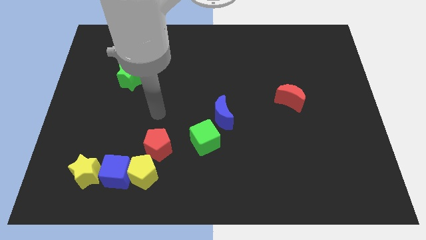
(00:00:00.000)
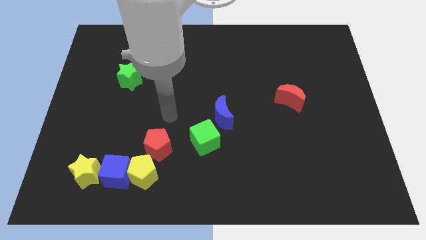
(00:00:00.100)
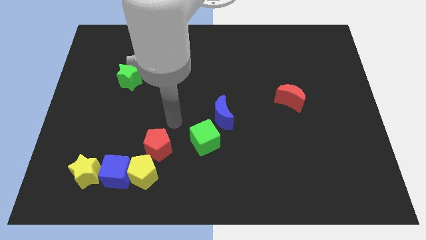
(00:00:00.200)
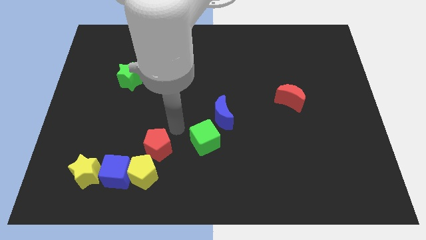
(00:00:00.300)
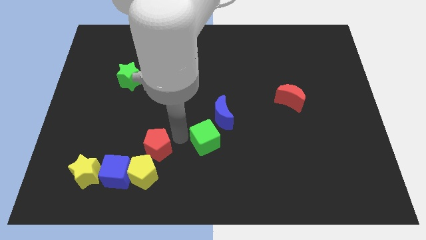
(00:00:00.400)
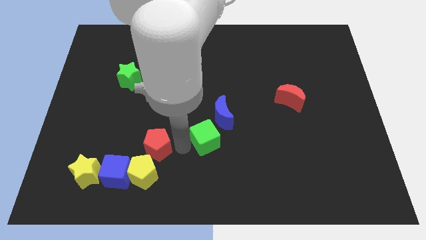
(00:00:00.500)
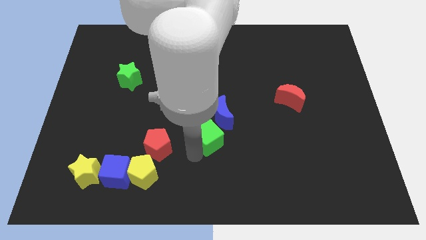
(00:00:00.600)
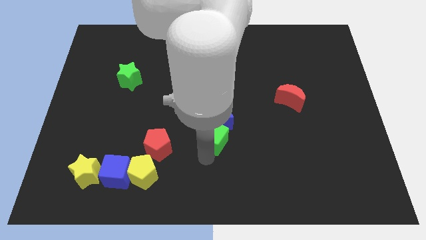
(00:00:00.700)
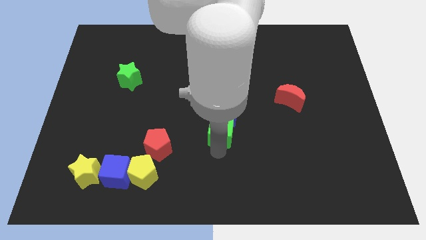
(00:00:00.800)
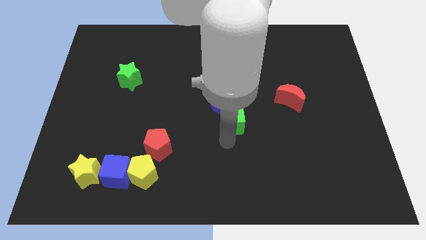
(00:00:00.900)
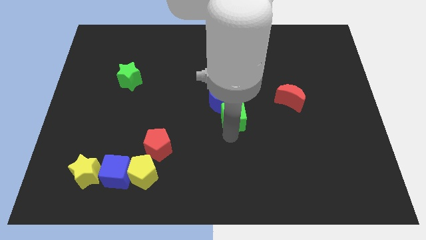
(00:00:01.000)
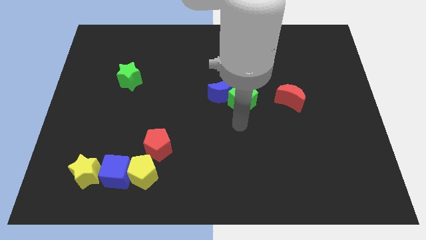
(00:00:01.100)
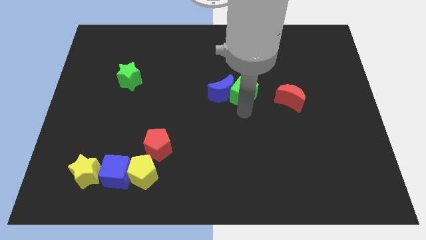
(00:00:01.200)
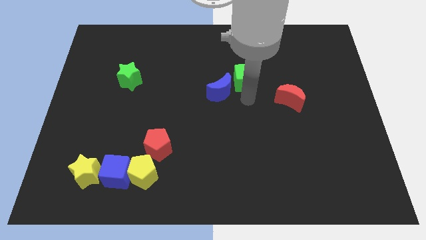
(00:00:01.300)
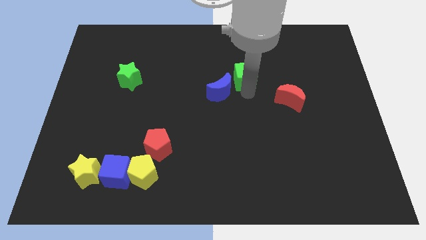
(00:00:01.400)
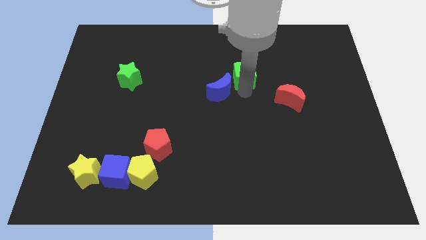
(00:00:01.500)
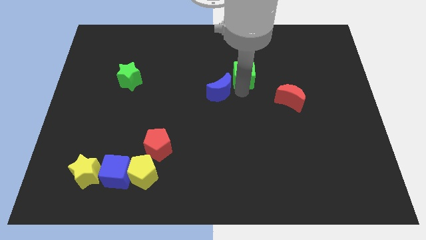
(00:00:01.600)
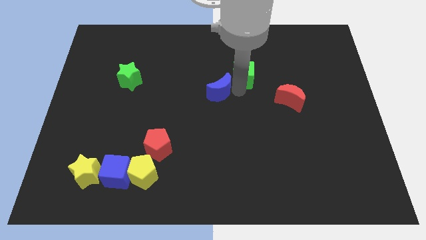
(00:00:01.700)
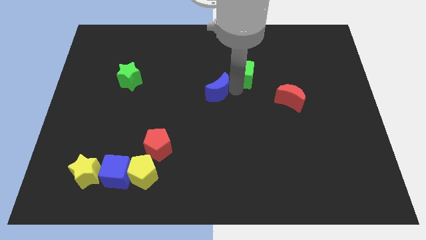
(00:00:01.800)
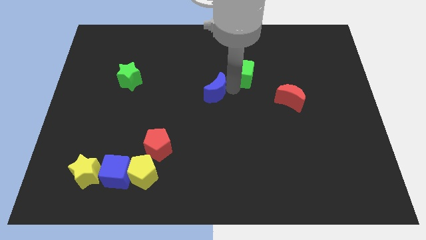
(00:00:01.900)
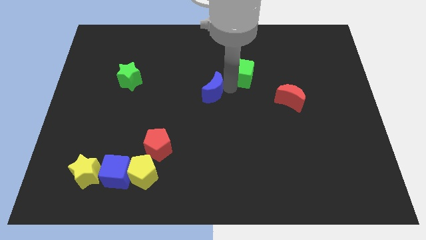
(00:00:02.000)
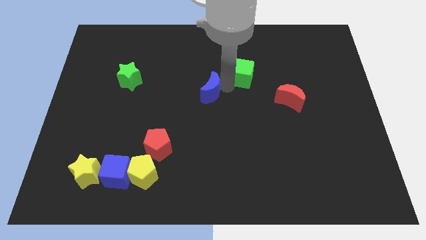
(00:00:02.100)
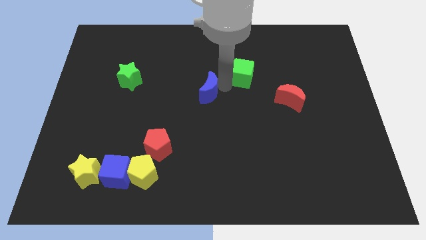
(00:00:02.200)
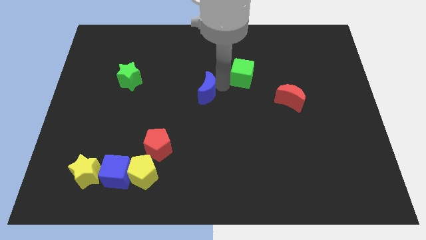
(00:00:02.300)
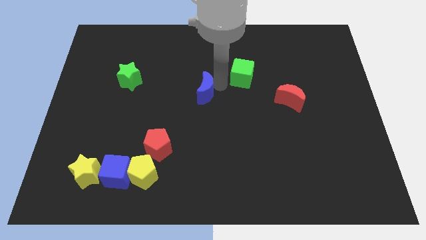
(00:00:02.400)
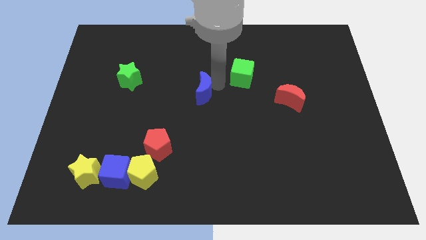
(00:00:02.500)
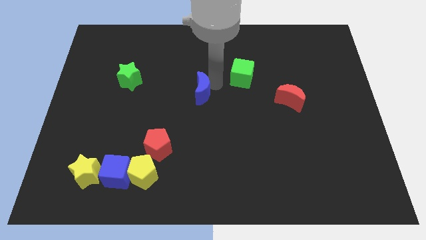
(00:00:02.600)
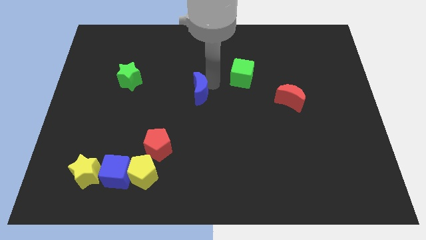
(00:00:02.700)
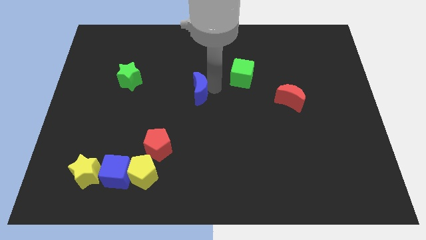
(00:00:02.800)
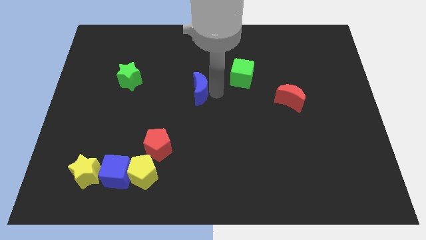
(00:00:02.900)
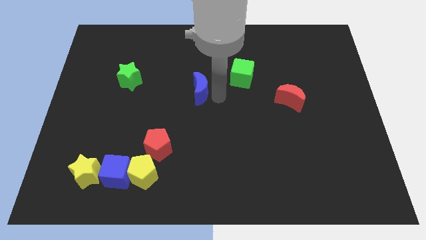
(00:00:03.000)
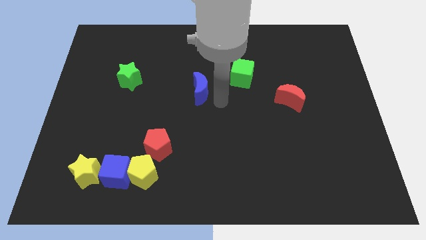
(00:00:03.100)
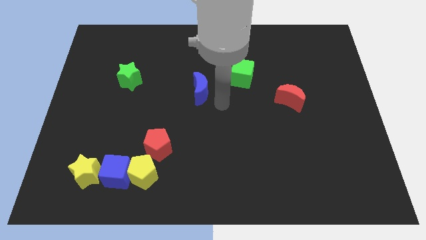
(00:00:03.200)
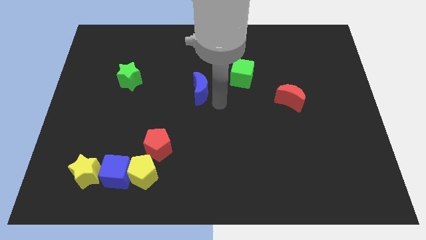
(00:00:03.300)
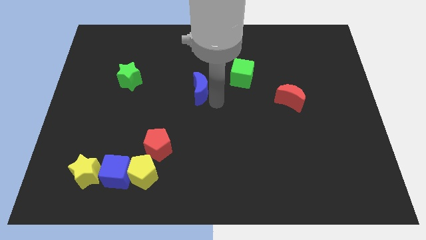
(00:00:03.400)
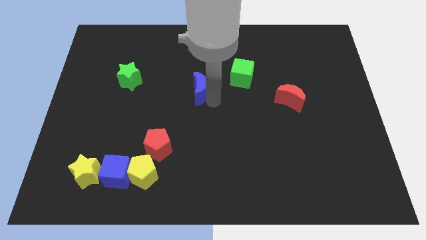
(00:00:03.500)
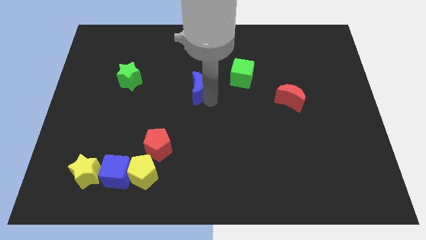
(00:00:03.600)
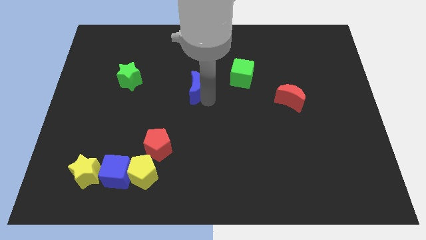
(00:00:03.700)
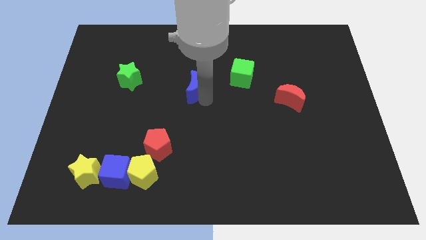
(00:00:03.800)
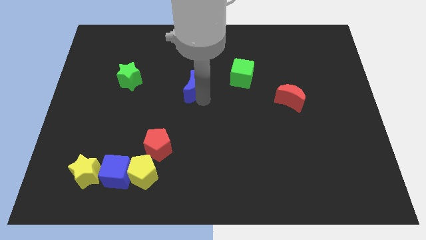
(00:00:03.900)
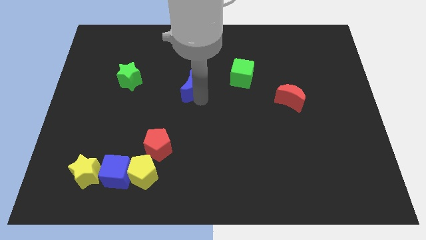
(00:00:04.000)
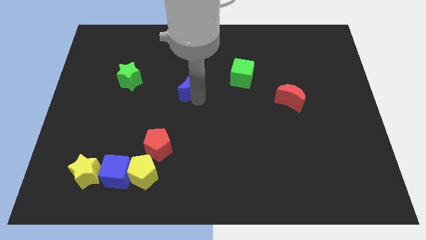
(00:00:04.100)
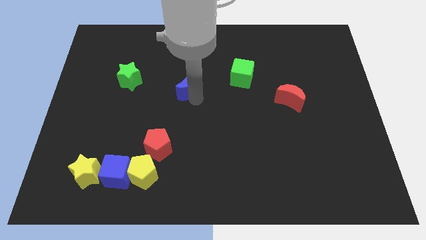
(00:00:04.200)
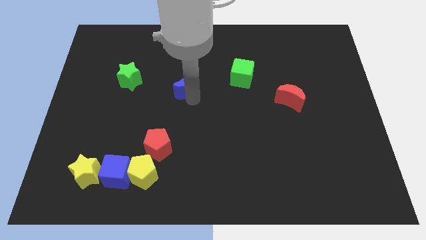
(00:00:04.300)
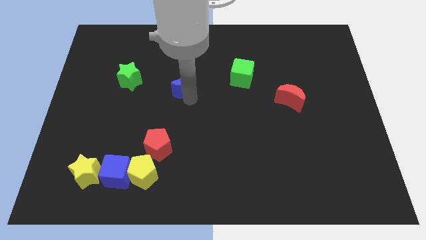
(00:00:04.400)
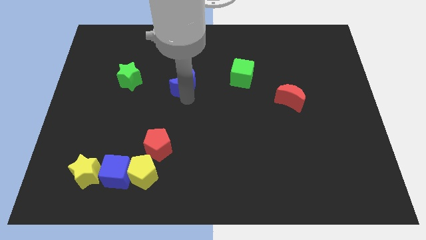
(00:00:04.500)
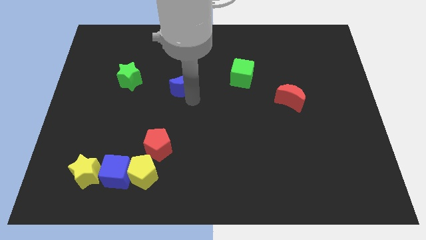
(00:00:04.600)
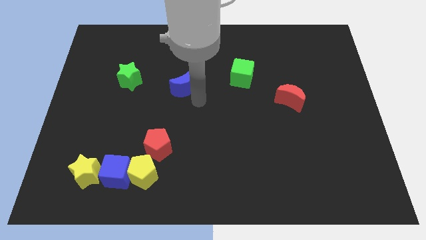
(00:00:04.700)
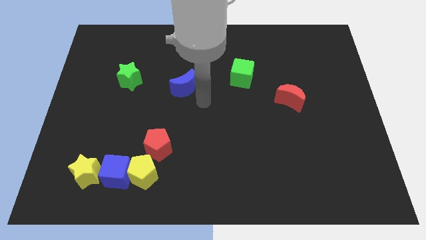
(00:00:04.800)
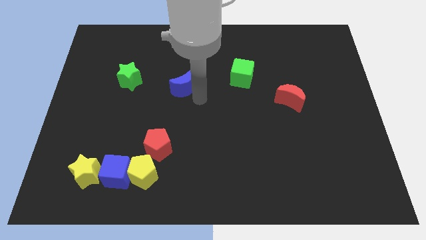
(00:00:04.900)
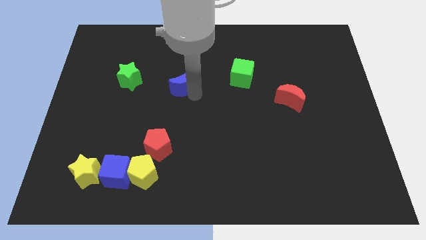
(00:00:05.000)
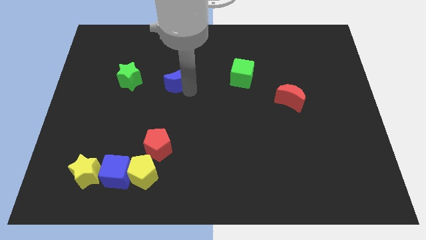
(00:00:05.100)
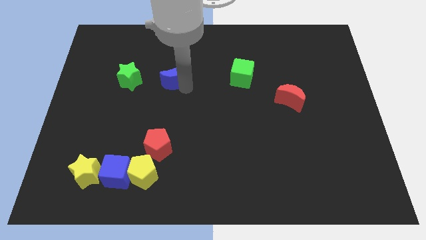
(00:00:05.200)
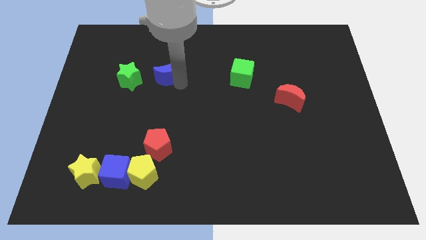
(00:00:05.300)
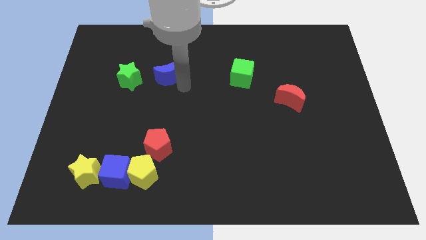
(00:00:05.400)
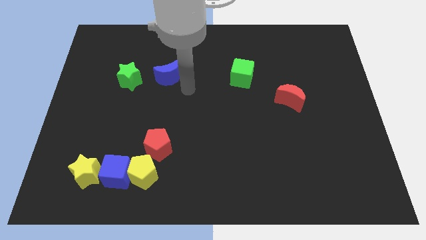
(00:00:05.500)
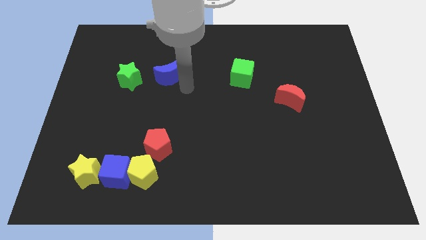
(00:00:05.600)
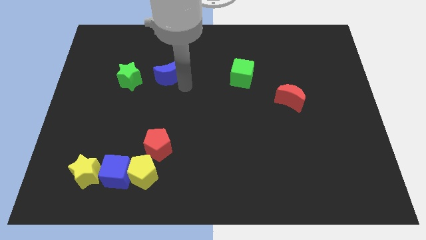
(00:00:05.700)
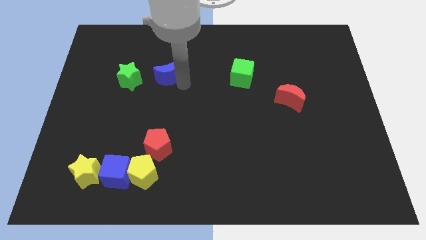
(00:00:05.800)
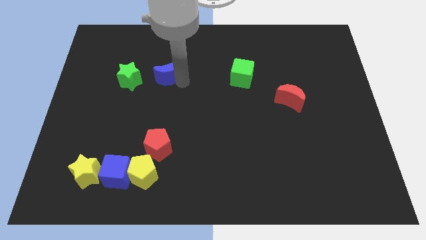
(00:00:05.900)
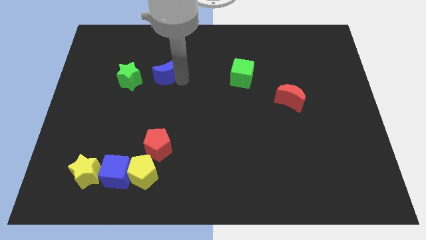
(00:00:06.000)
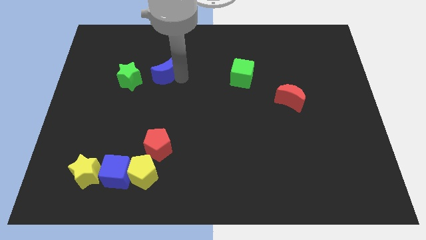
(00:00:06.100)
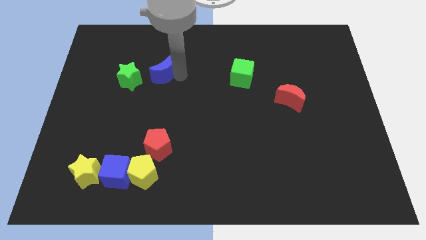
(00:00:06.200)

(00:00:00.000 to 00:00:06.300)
push the blue moon to the top right of the green star
